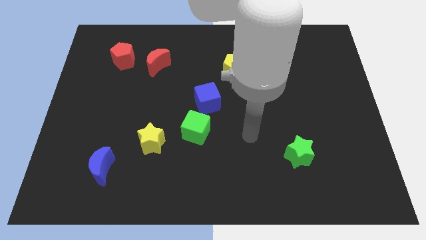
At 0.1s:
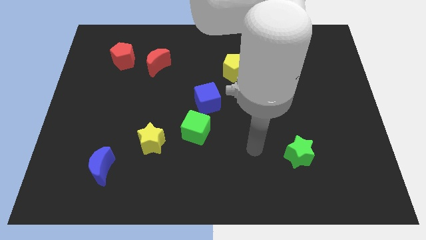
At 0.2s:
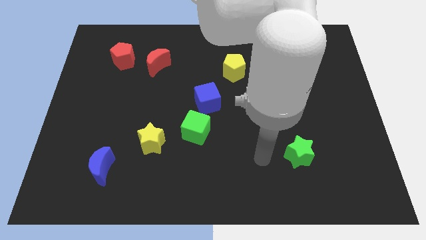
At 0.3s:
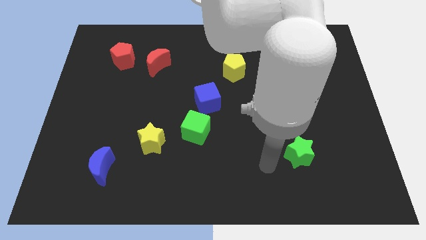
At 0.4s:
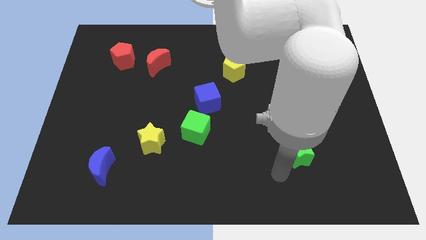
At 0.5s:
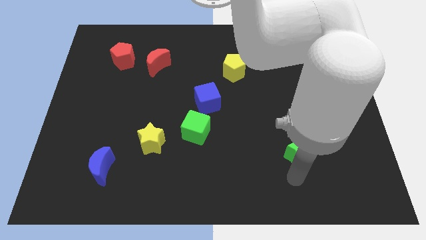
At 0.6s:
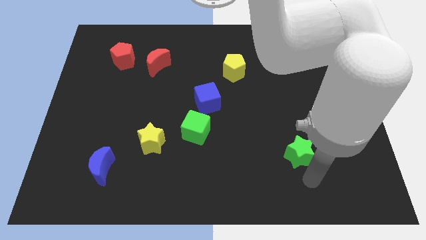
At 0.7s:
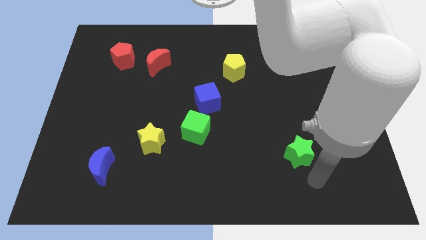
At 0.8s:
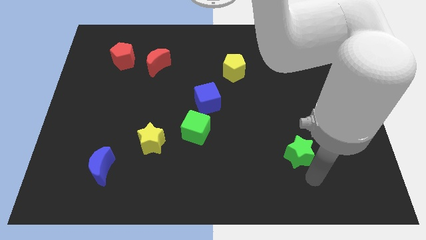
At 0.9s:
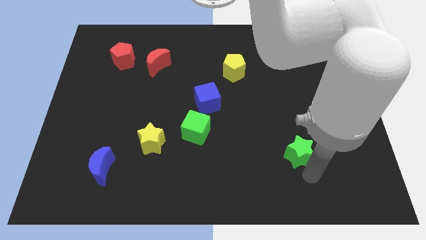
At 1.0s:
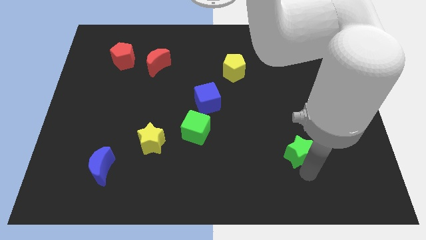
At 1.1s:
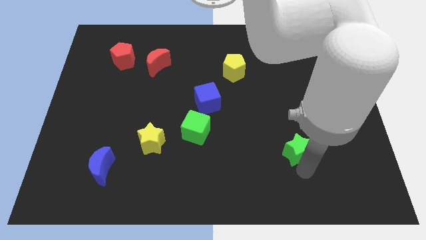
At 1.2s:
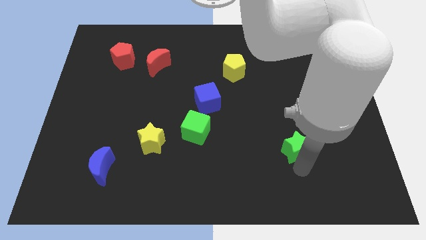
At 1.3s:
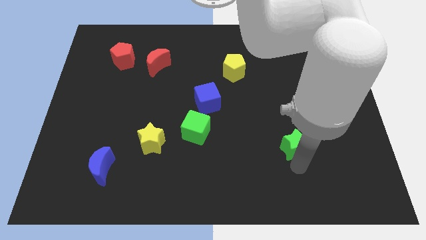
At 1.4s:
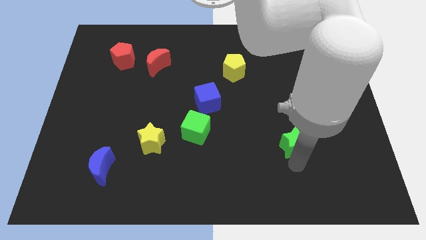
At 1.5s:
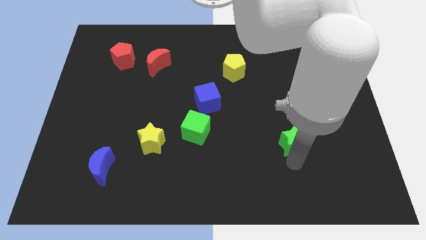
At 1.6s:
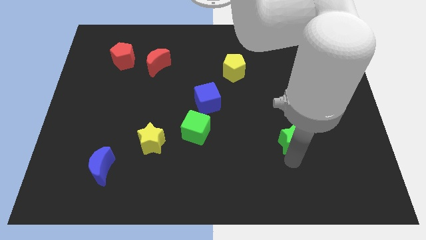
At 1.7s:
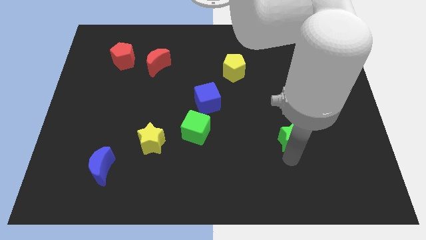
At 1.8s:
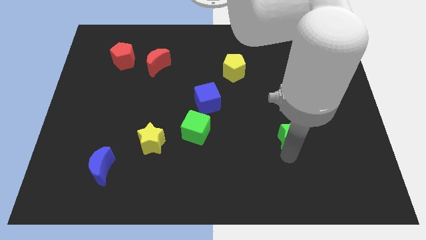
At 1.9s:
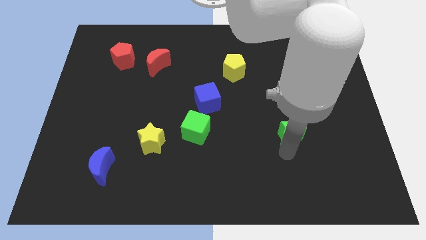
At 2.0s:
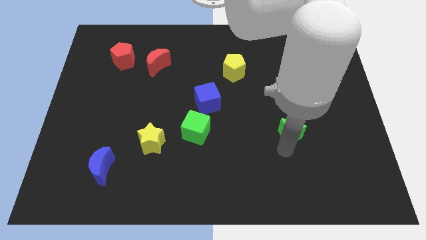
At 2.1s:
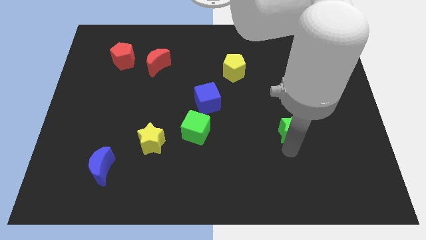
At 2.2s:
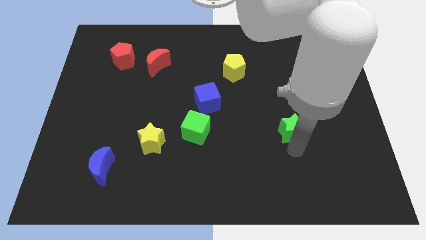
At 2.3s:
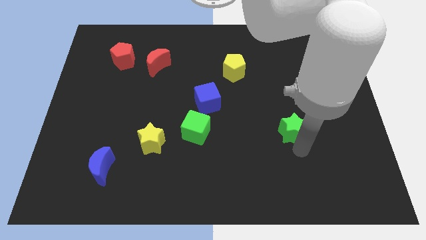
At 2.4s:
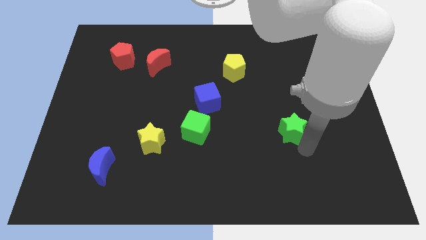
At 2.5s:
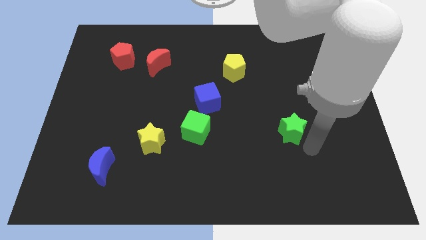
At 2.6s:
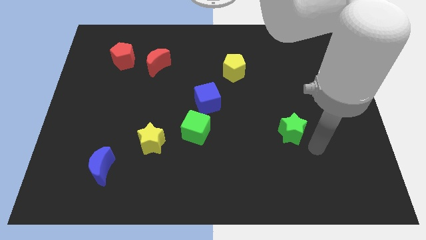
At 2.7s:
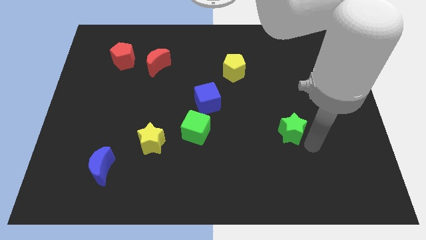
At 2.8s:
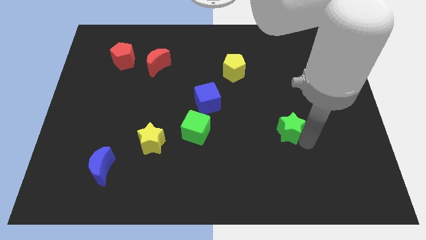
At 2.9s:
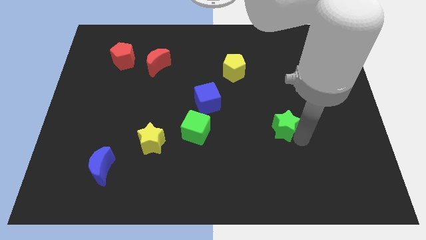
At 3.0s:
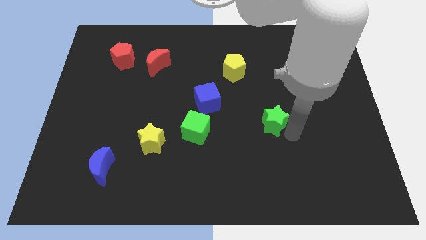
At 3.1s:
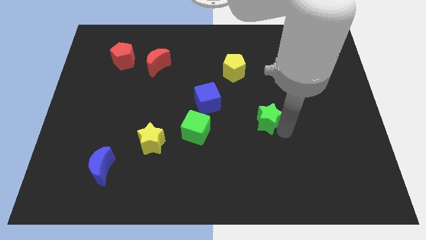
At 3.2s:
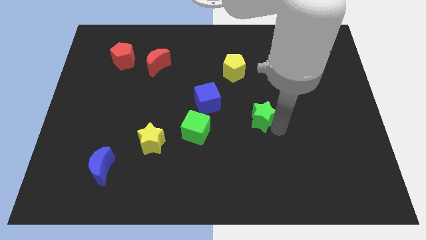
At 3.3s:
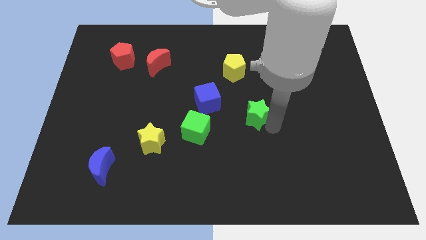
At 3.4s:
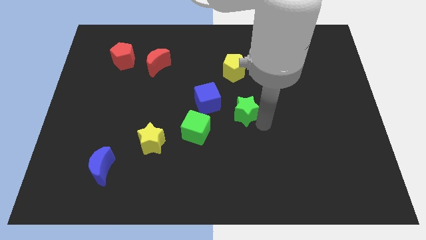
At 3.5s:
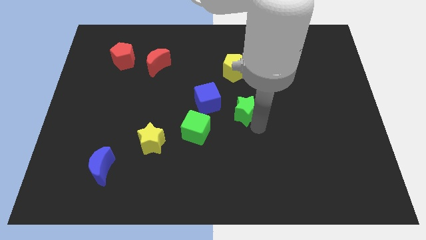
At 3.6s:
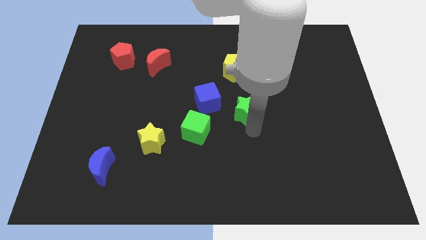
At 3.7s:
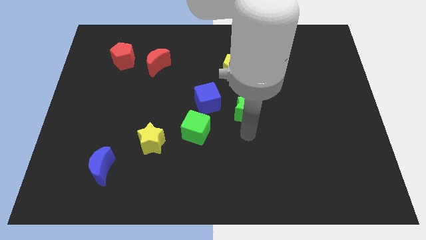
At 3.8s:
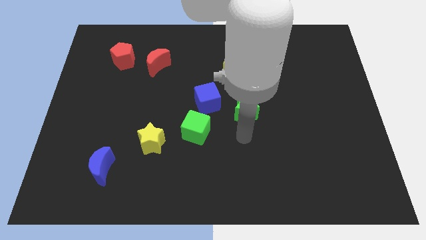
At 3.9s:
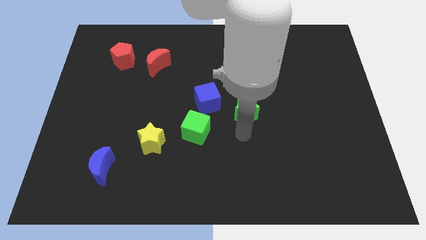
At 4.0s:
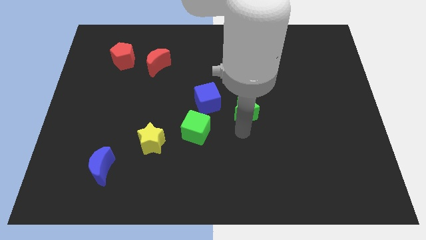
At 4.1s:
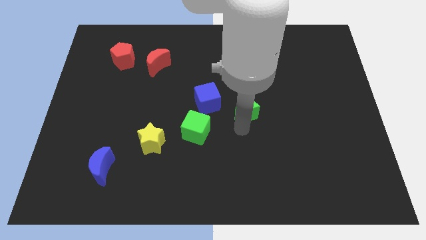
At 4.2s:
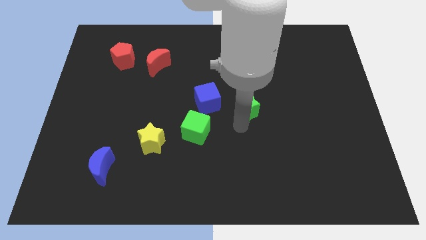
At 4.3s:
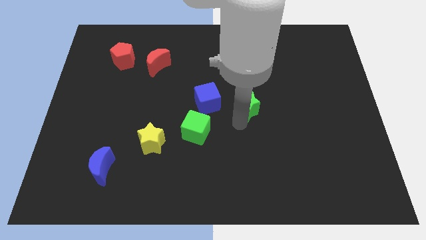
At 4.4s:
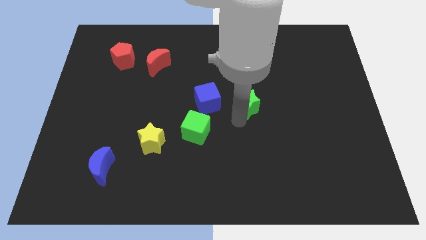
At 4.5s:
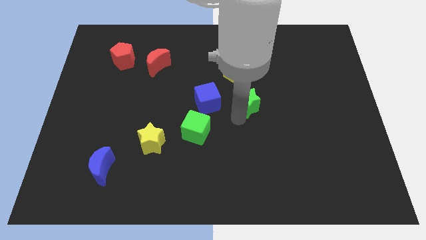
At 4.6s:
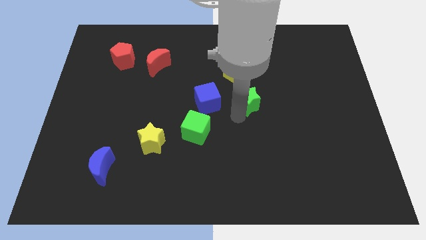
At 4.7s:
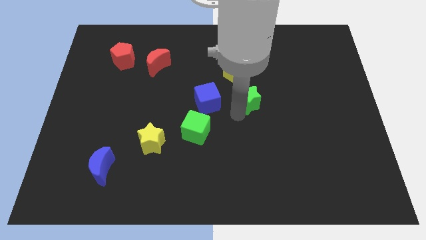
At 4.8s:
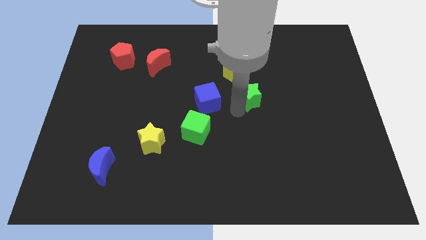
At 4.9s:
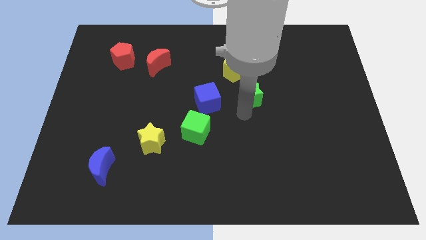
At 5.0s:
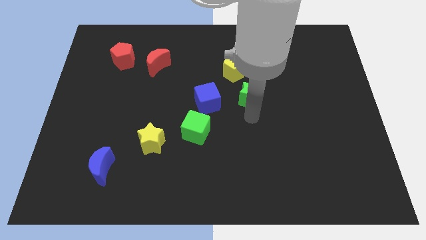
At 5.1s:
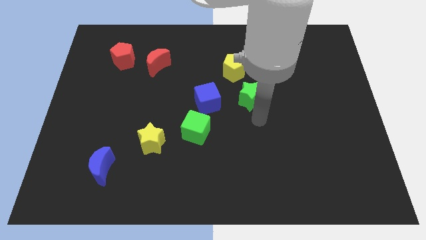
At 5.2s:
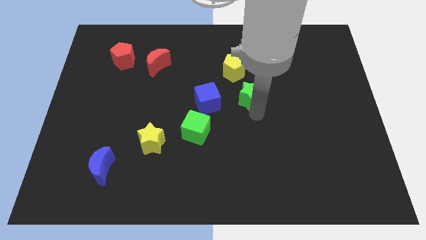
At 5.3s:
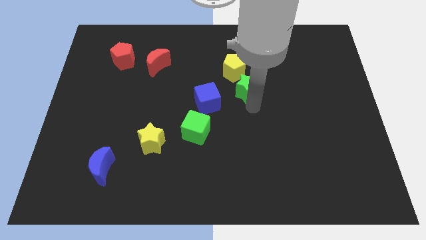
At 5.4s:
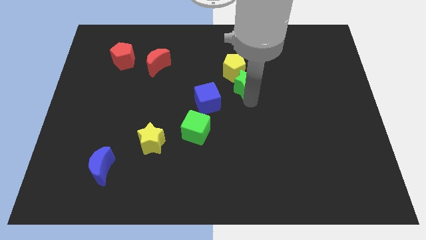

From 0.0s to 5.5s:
move the green star towards the yellow pentagon

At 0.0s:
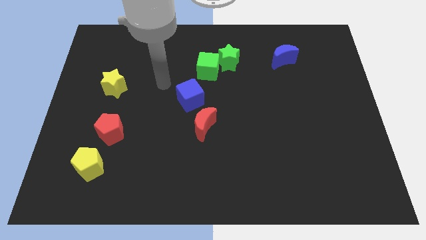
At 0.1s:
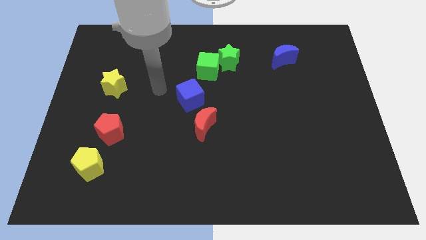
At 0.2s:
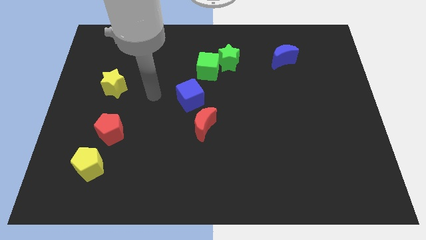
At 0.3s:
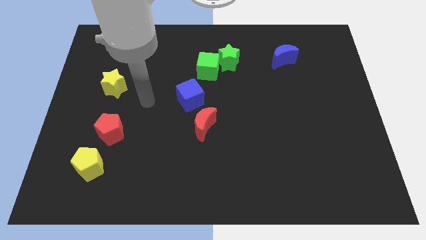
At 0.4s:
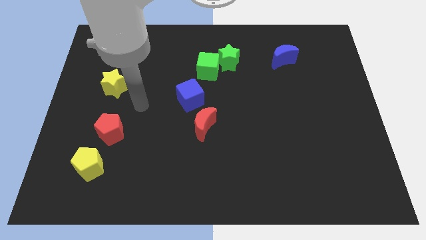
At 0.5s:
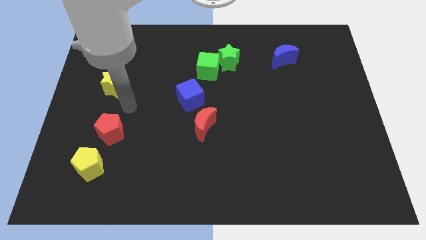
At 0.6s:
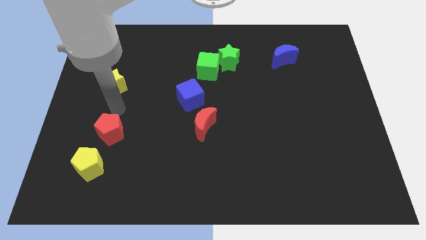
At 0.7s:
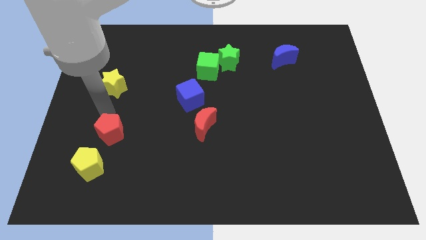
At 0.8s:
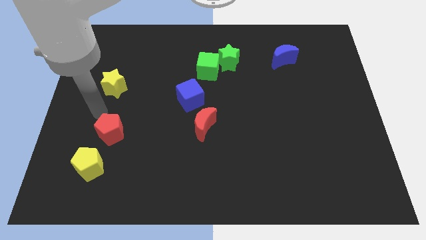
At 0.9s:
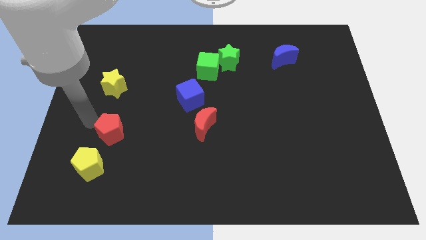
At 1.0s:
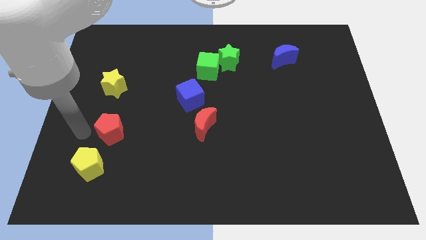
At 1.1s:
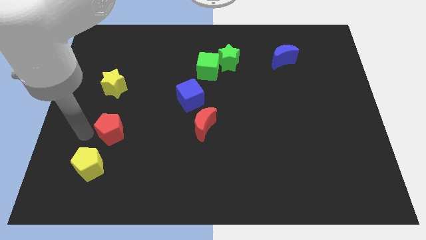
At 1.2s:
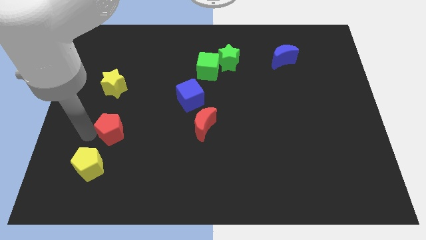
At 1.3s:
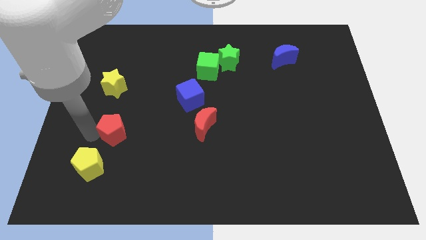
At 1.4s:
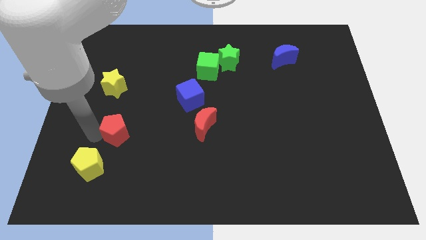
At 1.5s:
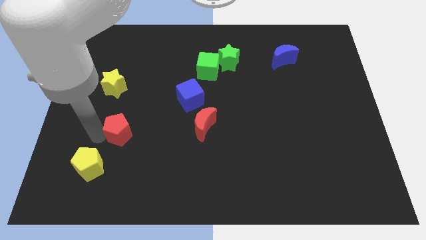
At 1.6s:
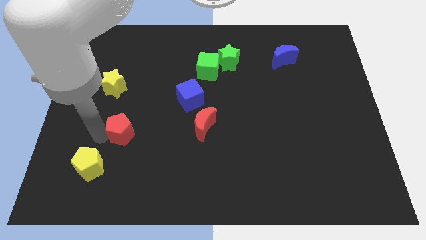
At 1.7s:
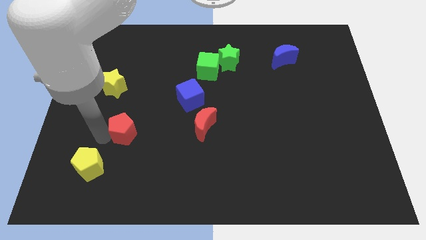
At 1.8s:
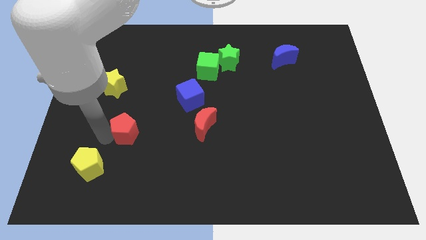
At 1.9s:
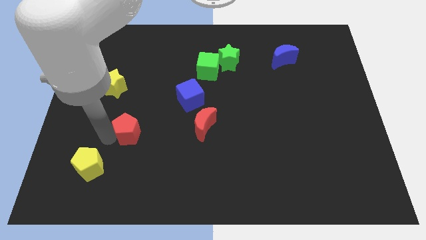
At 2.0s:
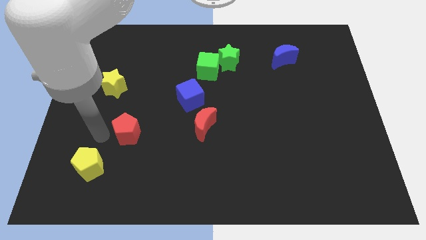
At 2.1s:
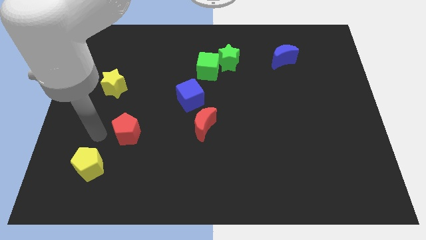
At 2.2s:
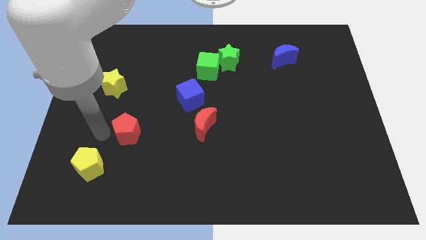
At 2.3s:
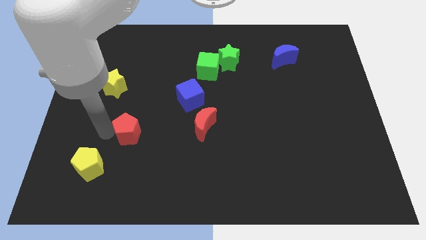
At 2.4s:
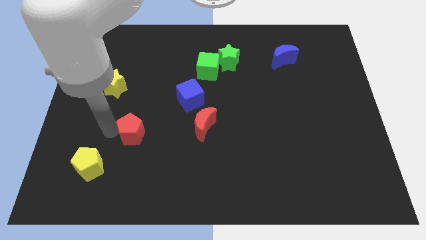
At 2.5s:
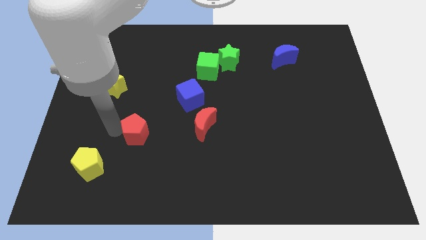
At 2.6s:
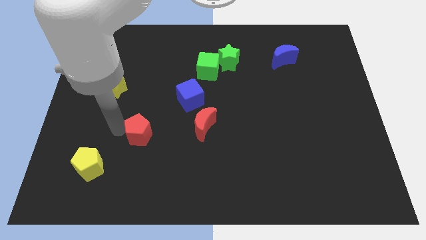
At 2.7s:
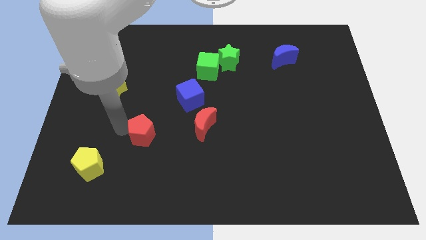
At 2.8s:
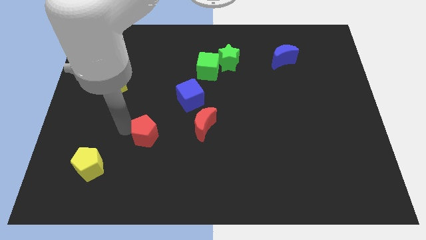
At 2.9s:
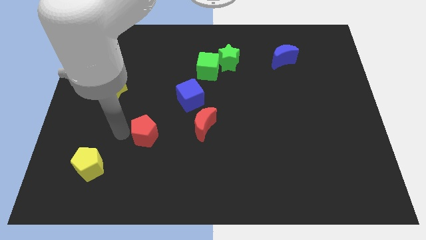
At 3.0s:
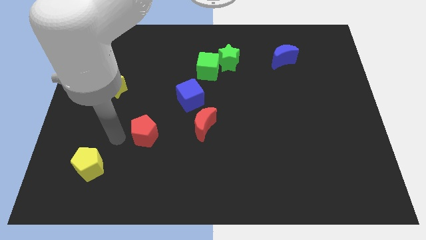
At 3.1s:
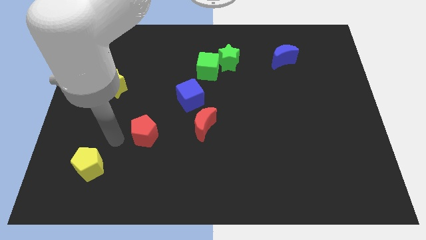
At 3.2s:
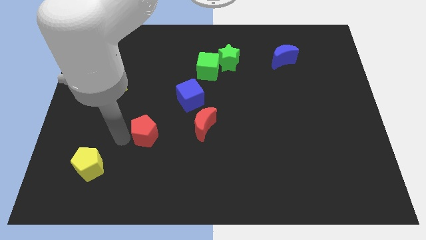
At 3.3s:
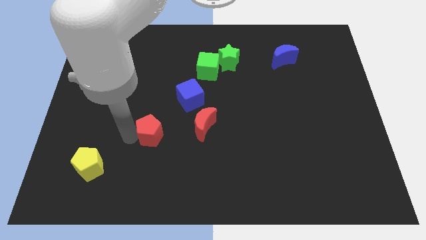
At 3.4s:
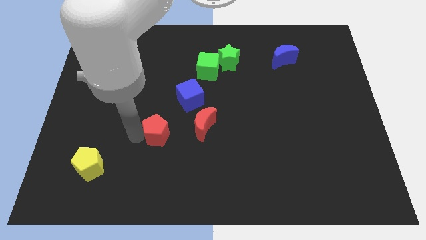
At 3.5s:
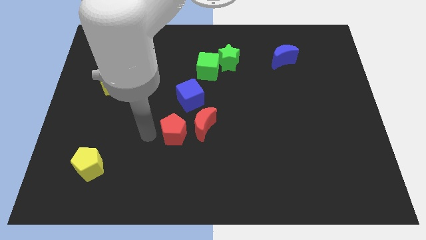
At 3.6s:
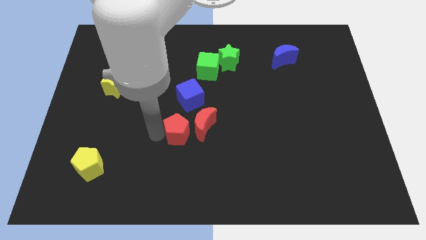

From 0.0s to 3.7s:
push the red pentagon towards the red moon
